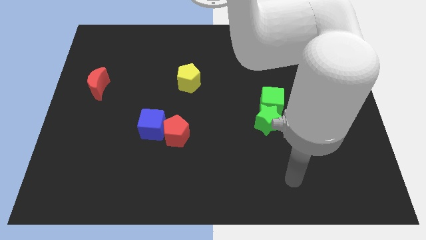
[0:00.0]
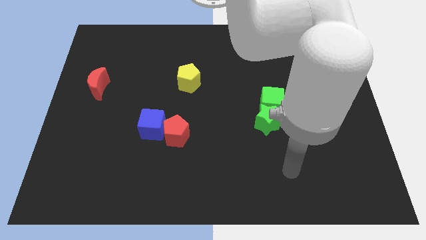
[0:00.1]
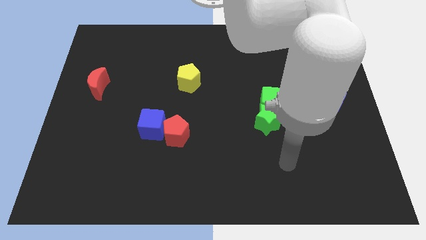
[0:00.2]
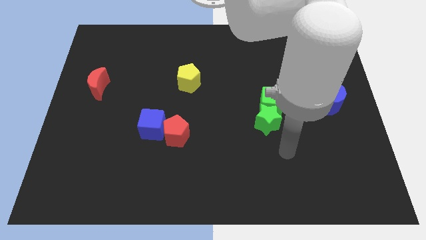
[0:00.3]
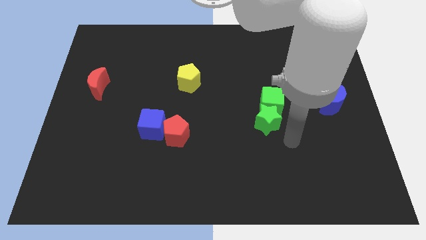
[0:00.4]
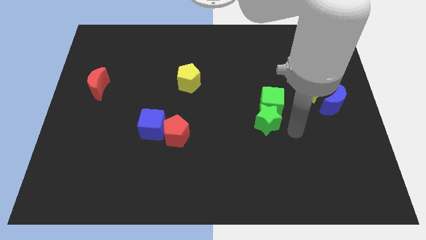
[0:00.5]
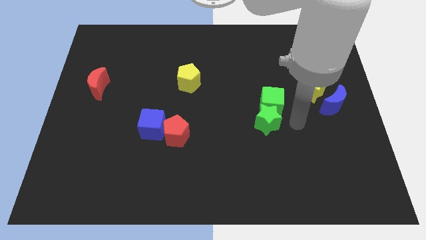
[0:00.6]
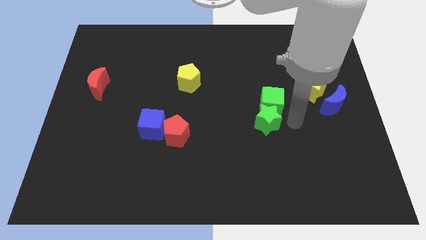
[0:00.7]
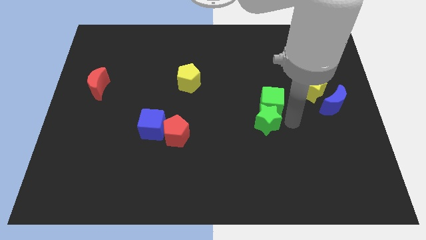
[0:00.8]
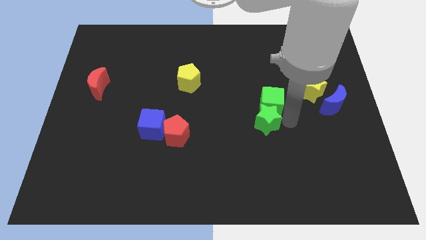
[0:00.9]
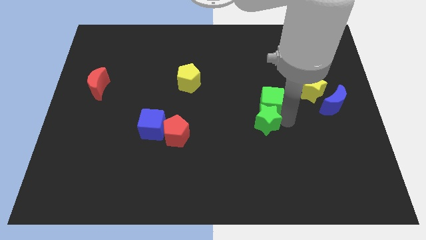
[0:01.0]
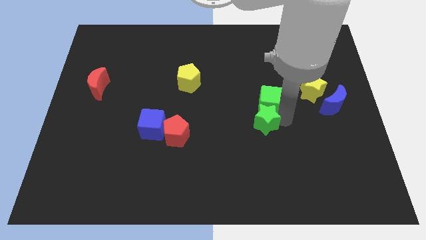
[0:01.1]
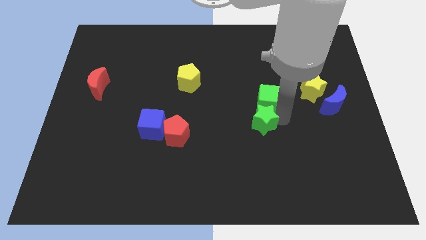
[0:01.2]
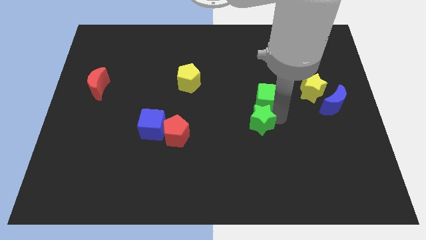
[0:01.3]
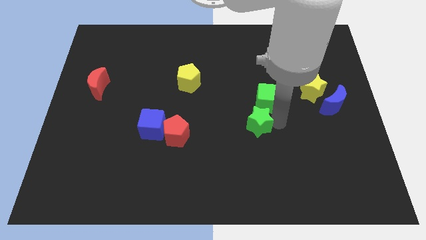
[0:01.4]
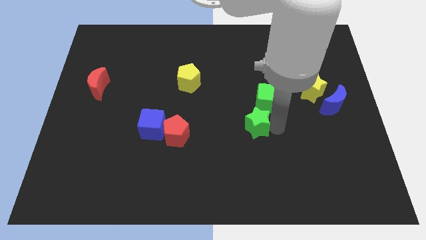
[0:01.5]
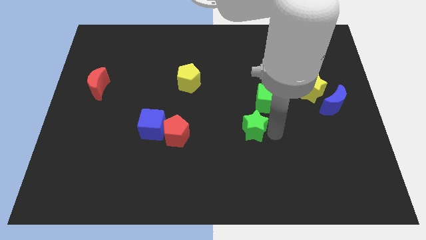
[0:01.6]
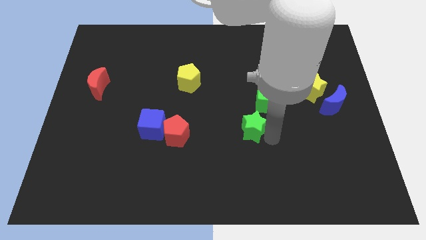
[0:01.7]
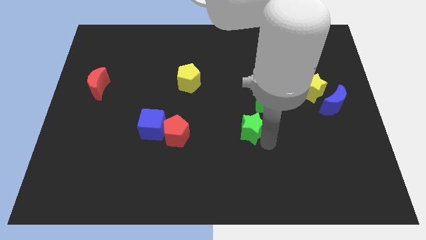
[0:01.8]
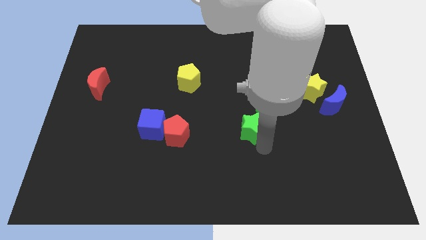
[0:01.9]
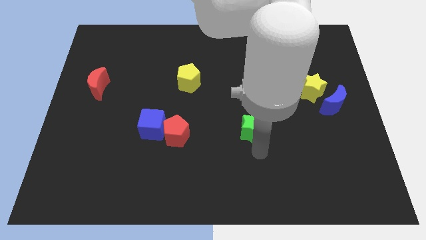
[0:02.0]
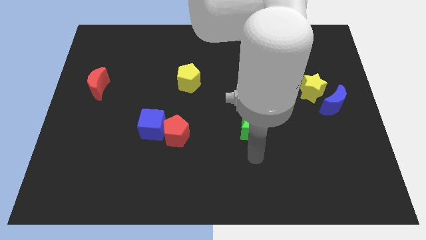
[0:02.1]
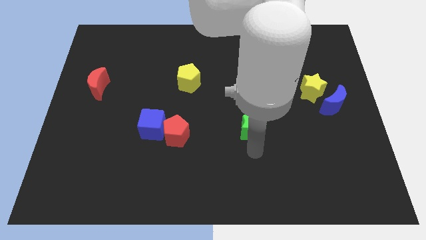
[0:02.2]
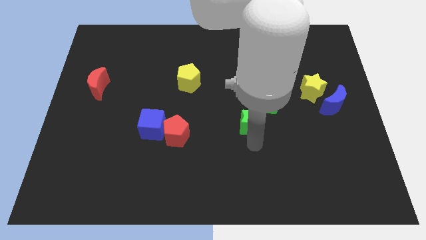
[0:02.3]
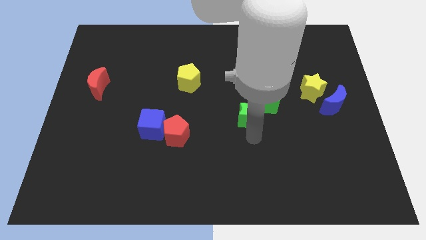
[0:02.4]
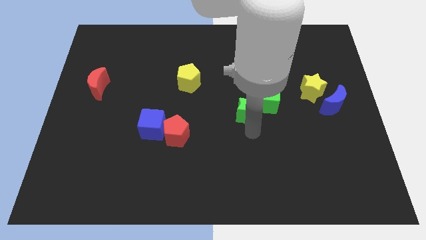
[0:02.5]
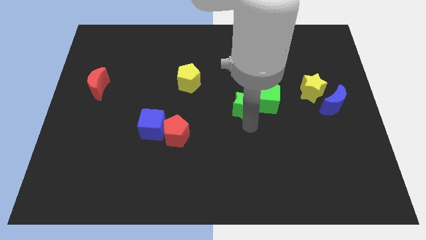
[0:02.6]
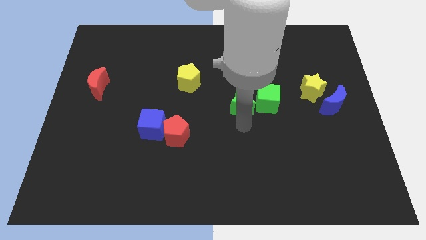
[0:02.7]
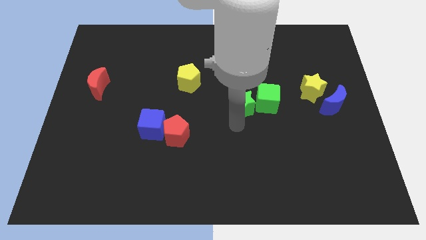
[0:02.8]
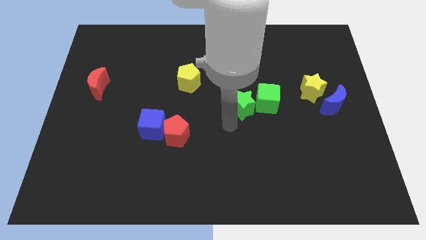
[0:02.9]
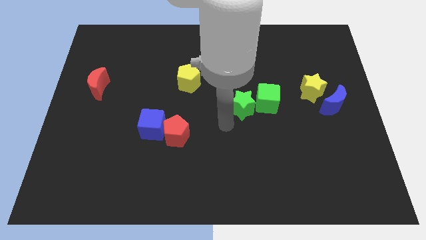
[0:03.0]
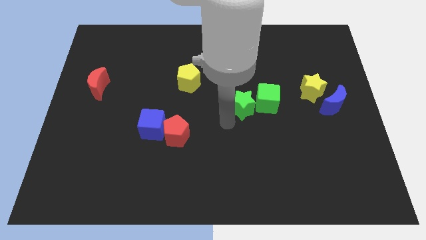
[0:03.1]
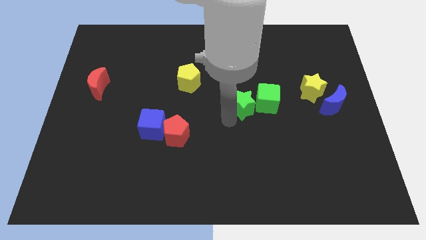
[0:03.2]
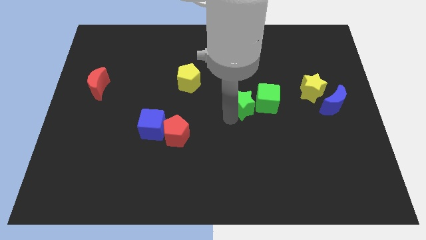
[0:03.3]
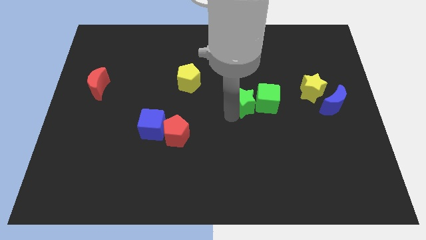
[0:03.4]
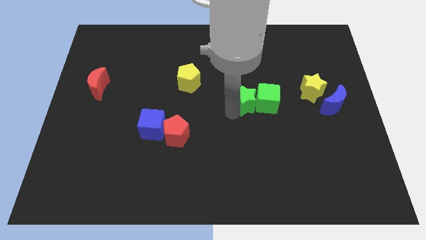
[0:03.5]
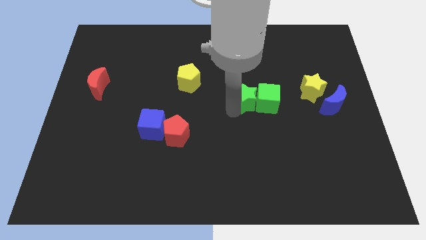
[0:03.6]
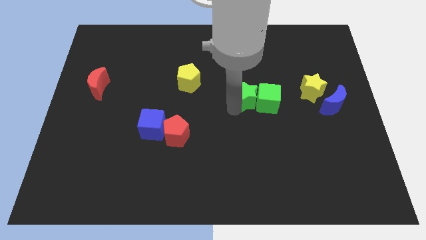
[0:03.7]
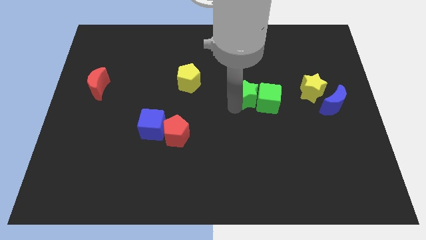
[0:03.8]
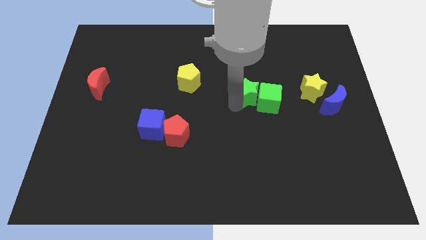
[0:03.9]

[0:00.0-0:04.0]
push the green star up a little

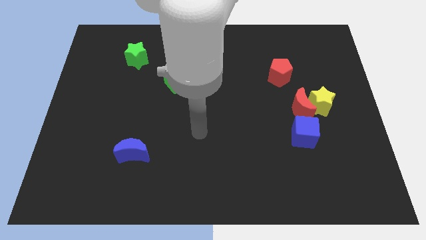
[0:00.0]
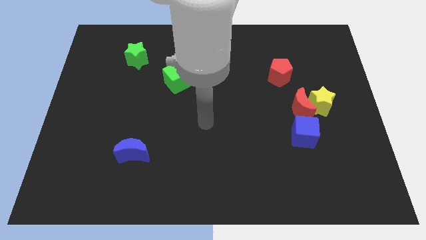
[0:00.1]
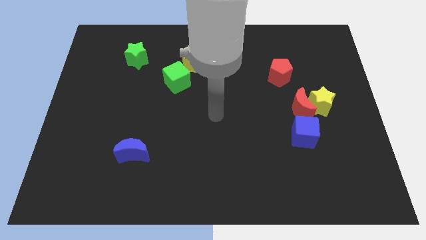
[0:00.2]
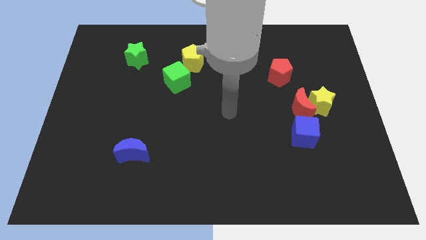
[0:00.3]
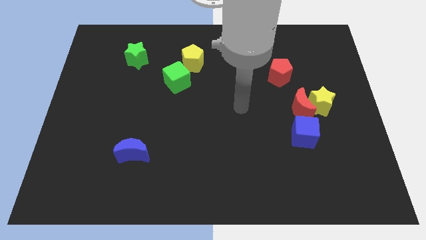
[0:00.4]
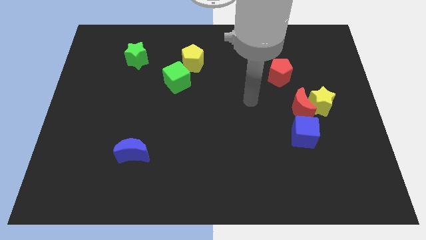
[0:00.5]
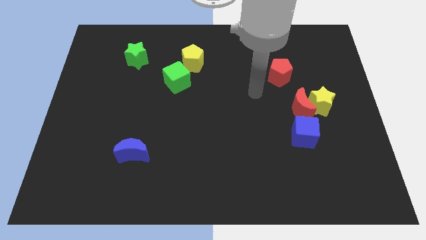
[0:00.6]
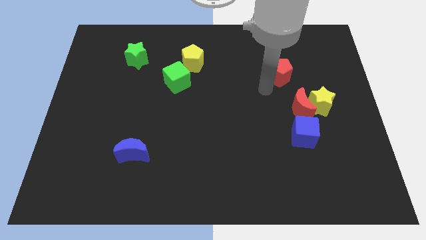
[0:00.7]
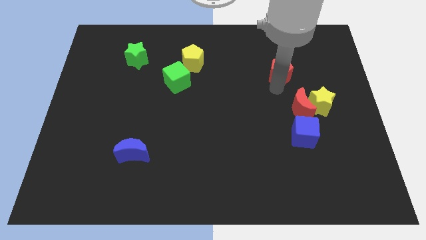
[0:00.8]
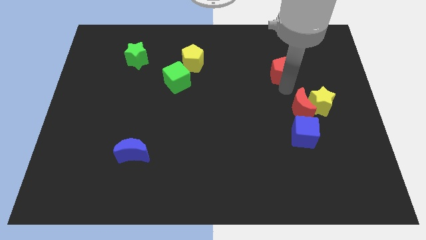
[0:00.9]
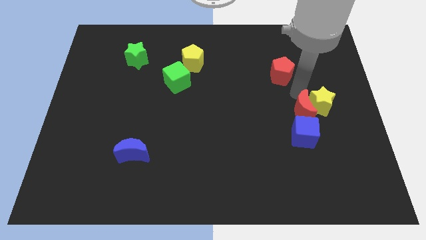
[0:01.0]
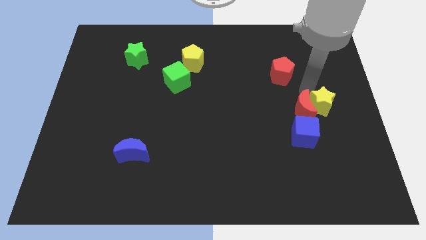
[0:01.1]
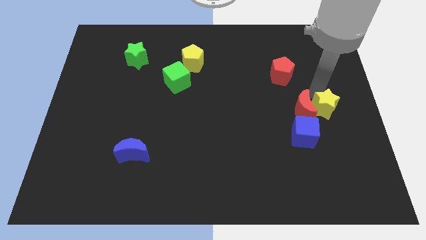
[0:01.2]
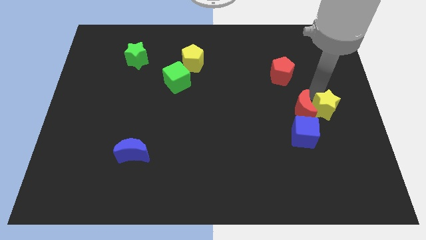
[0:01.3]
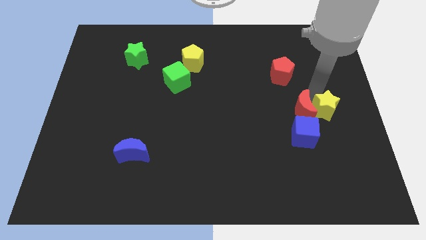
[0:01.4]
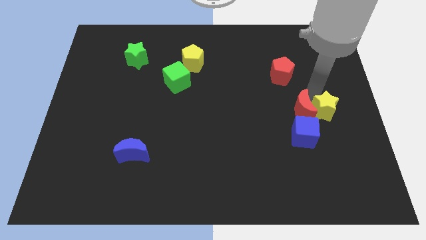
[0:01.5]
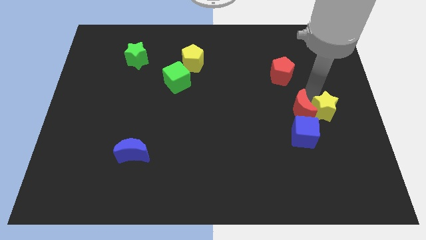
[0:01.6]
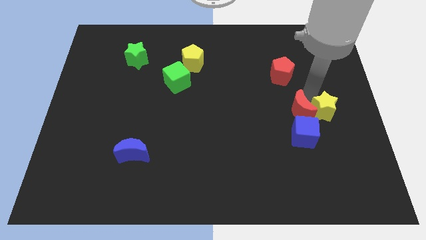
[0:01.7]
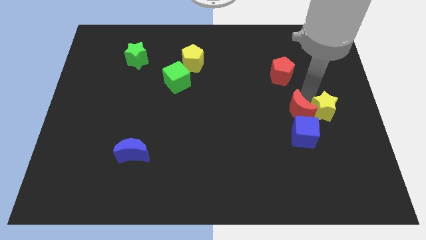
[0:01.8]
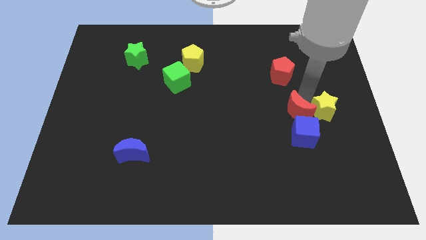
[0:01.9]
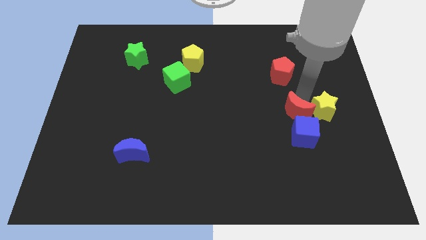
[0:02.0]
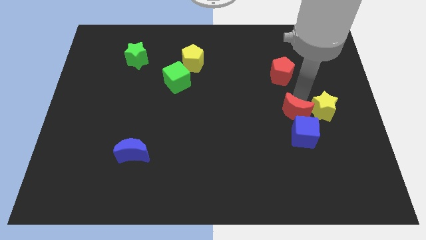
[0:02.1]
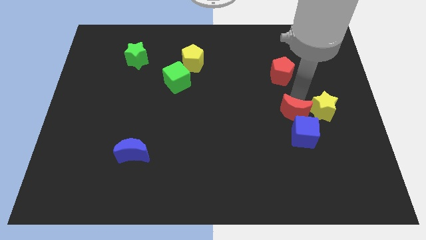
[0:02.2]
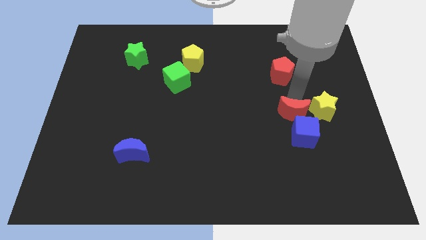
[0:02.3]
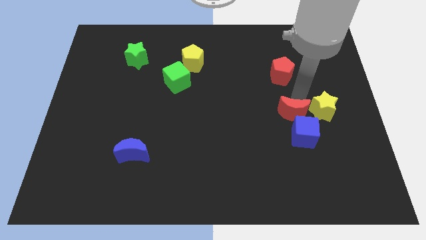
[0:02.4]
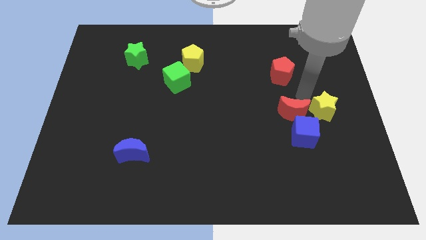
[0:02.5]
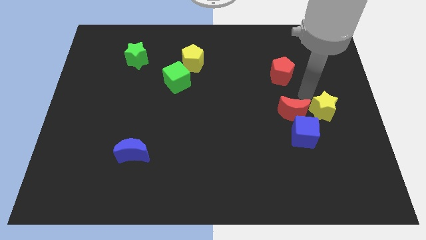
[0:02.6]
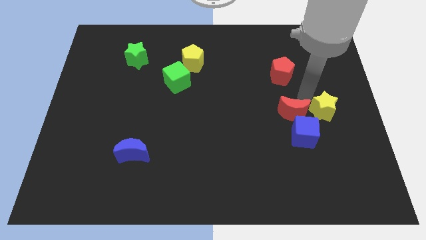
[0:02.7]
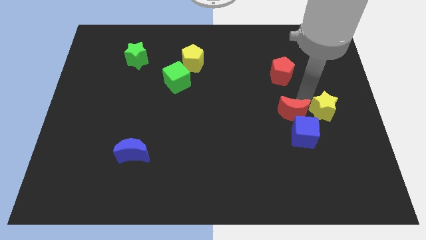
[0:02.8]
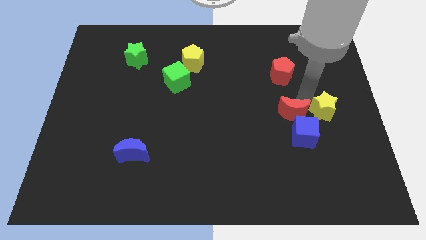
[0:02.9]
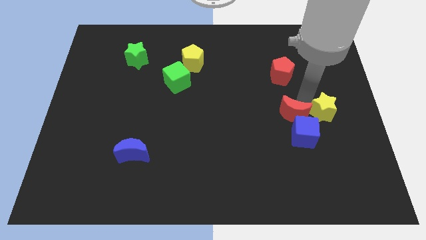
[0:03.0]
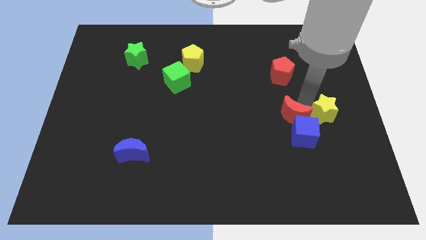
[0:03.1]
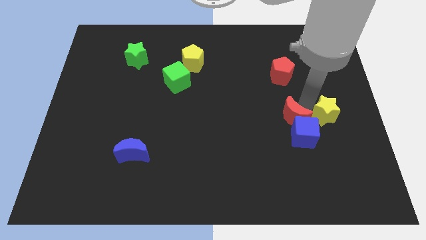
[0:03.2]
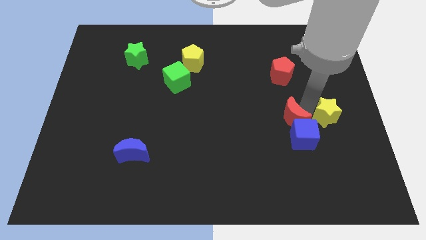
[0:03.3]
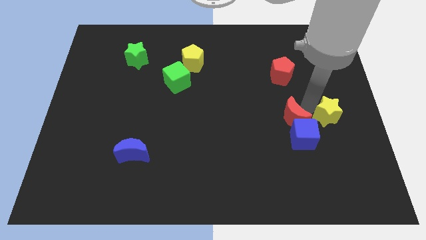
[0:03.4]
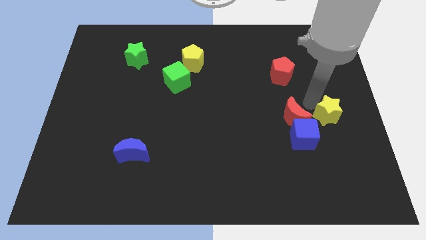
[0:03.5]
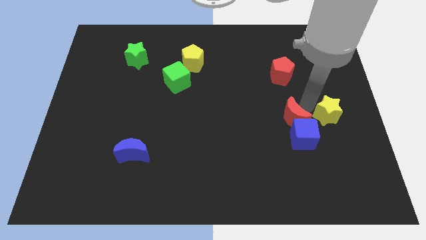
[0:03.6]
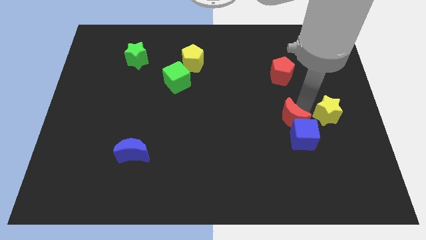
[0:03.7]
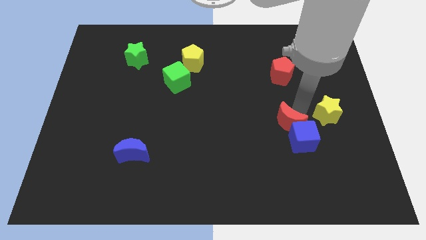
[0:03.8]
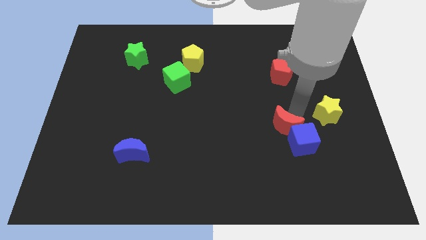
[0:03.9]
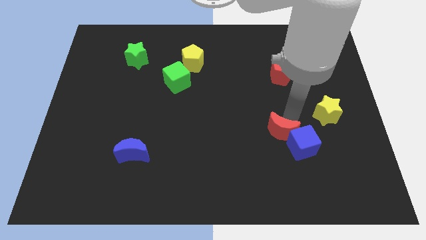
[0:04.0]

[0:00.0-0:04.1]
slightly push the red moon downwards and then to the left

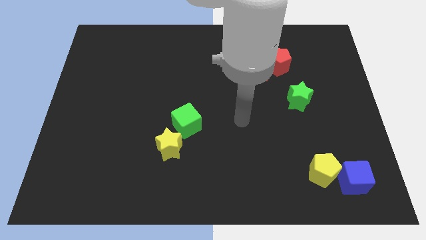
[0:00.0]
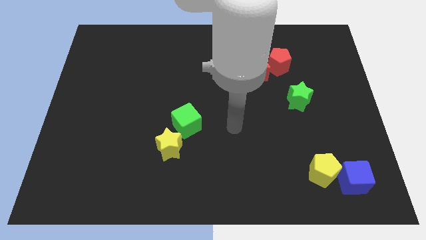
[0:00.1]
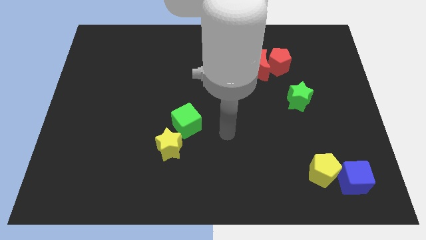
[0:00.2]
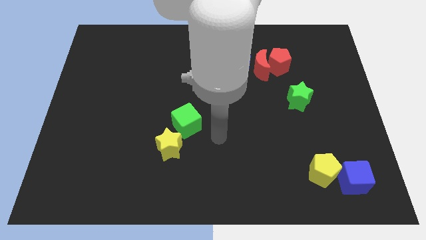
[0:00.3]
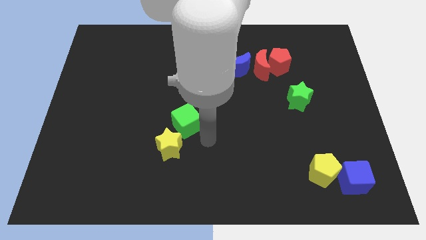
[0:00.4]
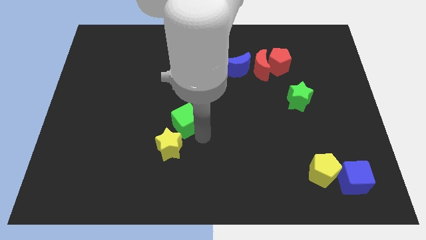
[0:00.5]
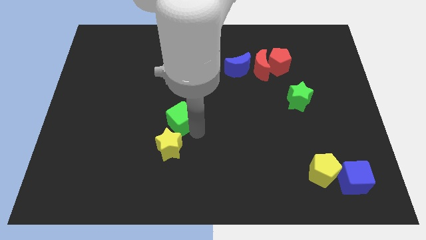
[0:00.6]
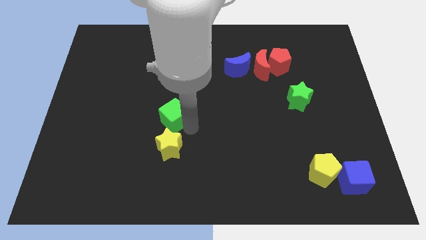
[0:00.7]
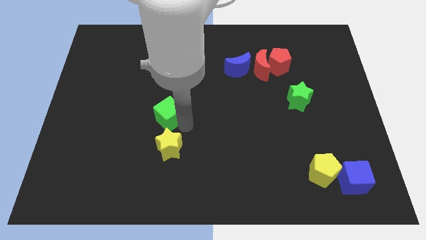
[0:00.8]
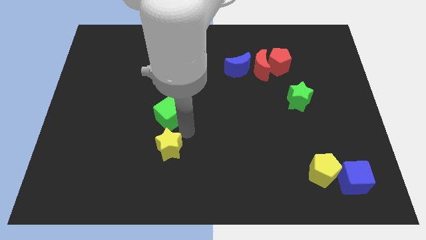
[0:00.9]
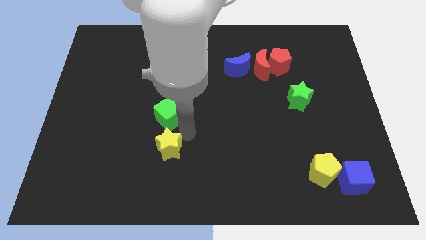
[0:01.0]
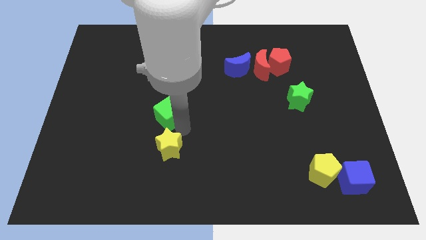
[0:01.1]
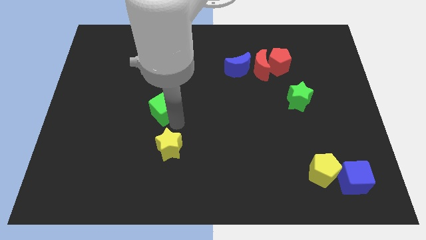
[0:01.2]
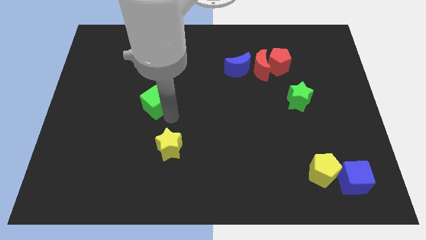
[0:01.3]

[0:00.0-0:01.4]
slightly push the green cube upwards and left diagonally
